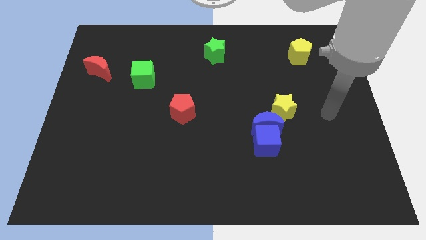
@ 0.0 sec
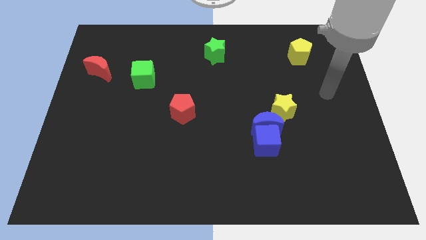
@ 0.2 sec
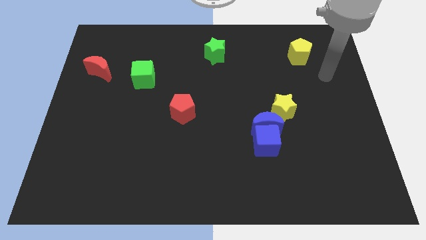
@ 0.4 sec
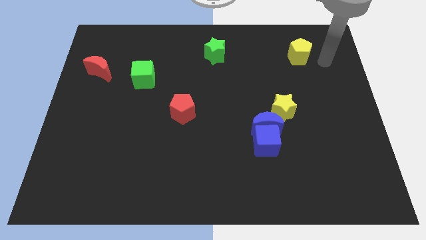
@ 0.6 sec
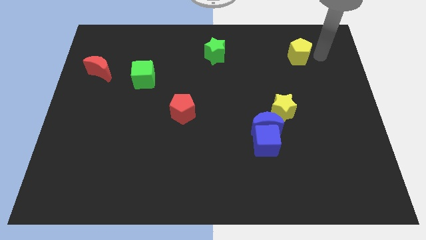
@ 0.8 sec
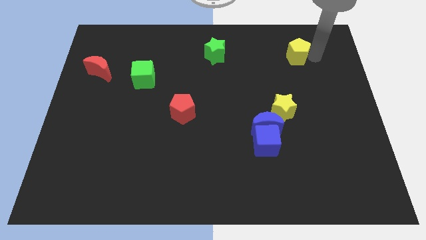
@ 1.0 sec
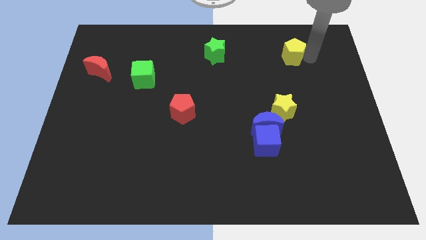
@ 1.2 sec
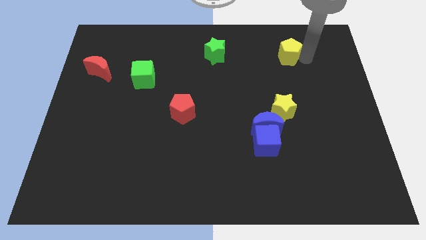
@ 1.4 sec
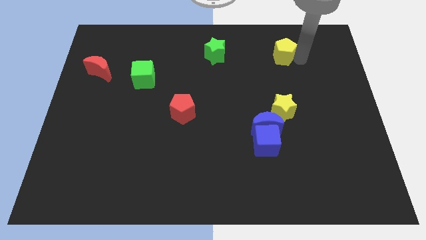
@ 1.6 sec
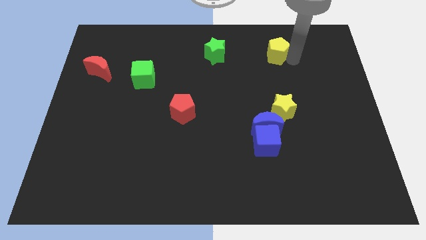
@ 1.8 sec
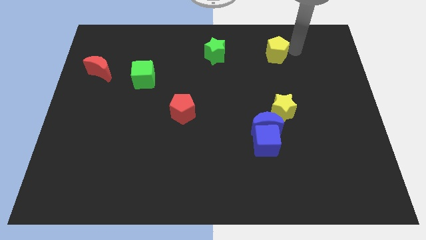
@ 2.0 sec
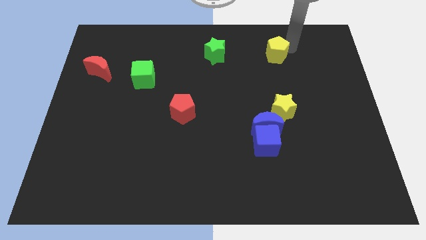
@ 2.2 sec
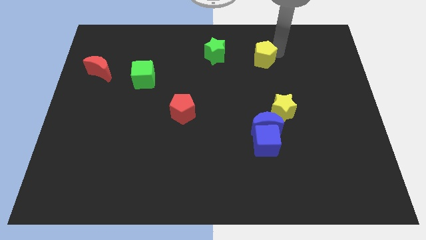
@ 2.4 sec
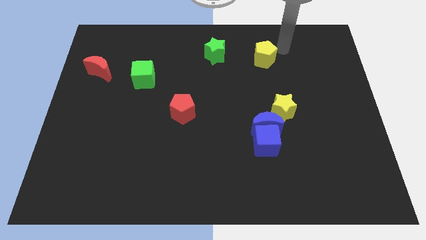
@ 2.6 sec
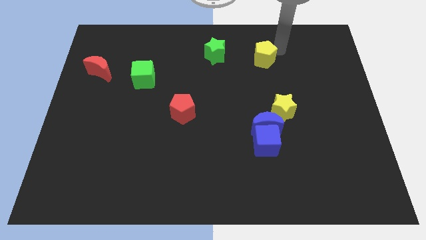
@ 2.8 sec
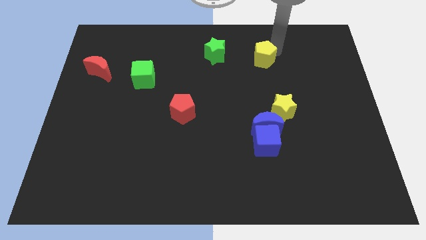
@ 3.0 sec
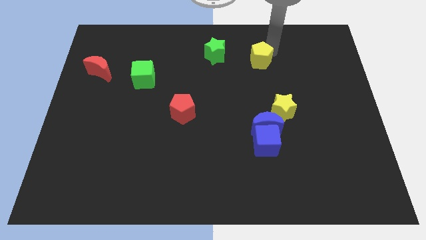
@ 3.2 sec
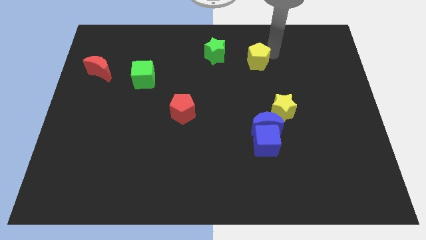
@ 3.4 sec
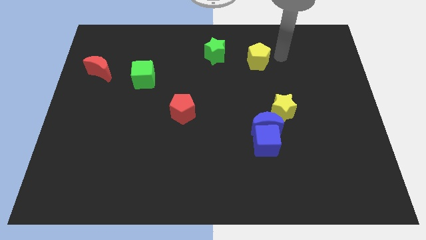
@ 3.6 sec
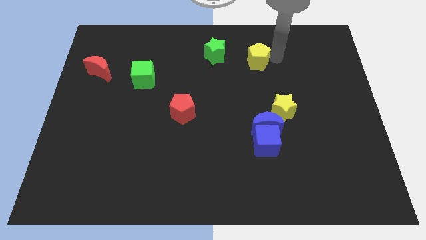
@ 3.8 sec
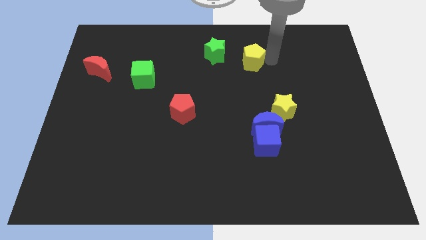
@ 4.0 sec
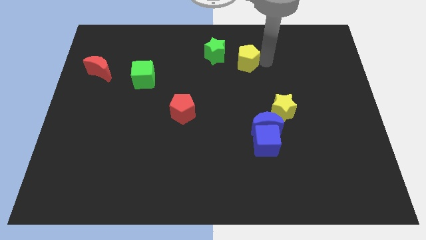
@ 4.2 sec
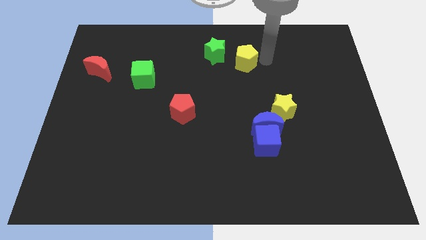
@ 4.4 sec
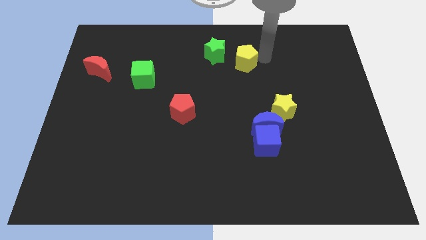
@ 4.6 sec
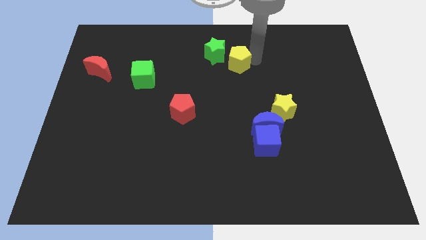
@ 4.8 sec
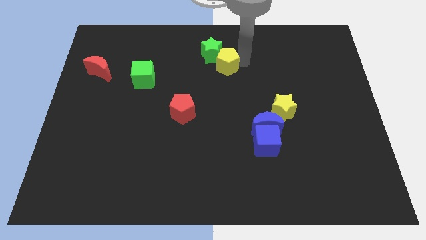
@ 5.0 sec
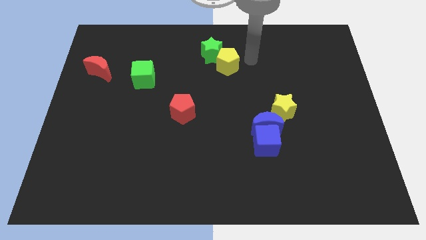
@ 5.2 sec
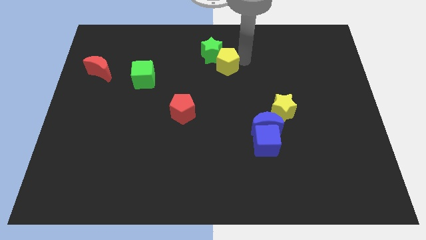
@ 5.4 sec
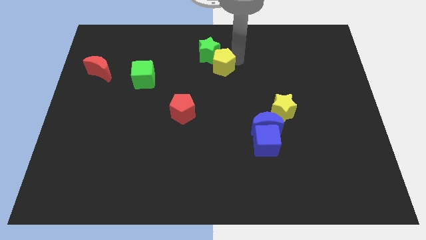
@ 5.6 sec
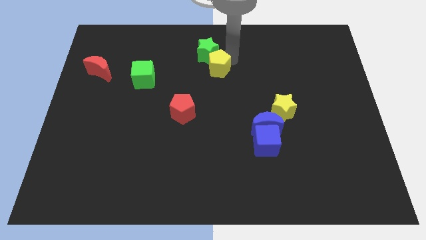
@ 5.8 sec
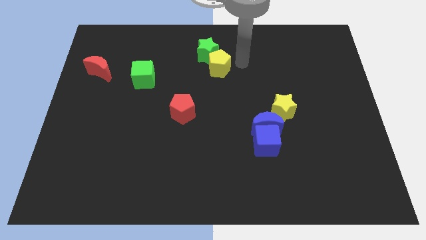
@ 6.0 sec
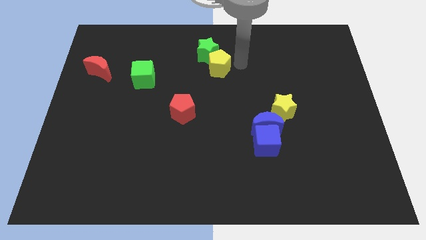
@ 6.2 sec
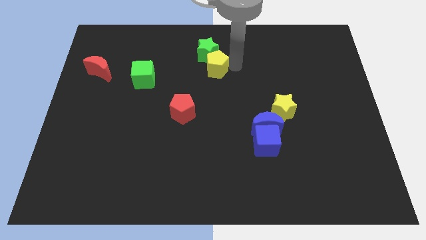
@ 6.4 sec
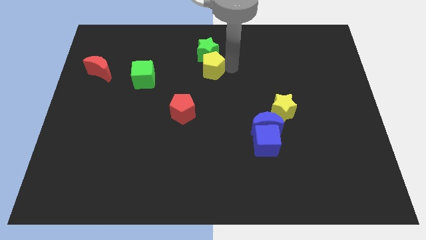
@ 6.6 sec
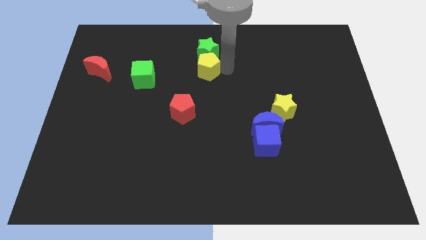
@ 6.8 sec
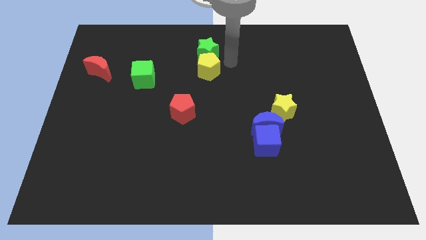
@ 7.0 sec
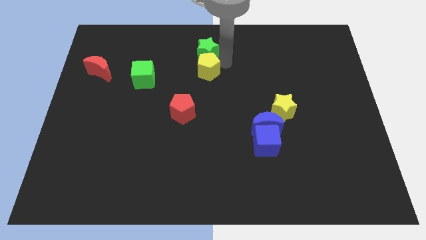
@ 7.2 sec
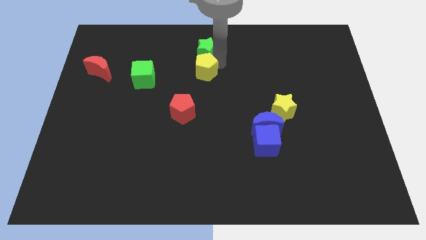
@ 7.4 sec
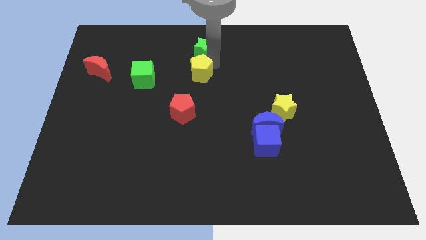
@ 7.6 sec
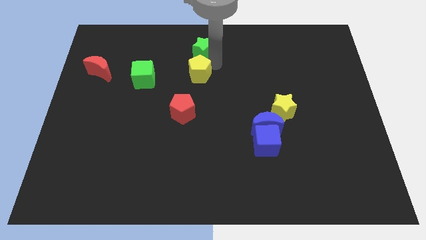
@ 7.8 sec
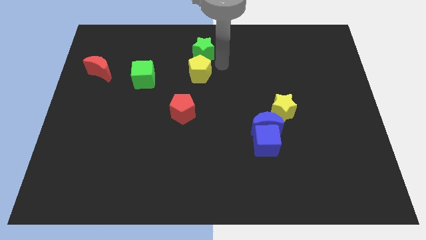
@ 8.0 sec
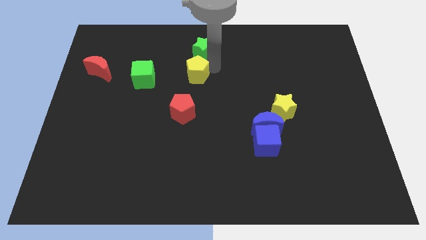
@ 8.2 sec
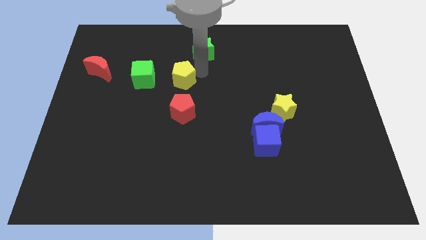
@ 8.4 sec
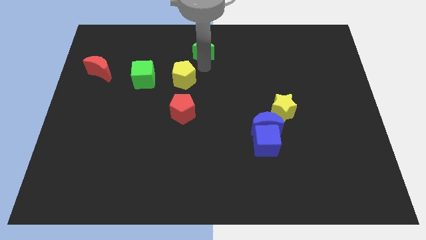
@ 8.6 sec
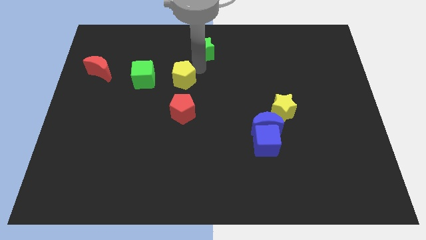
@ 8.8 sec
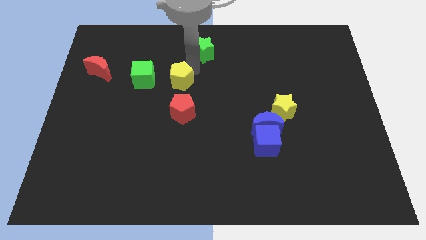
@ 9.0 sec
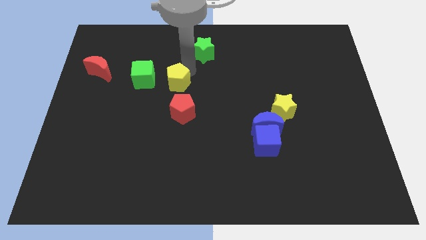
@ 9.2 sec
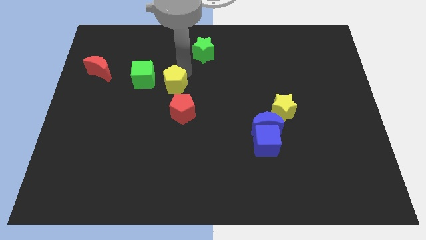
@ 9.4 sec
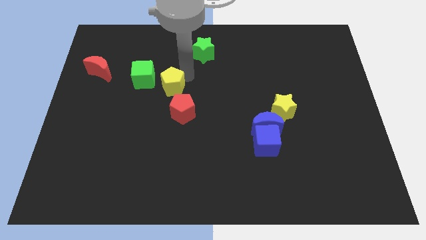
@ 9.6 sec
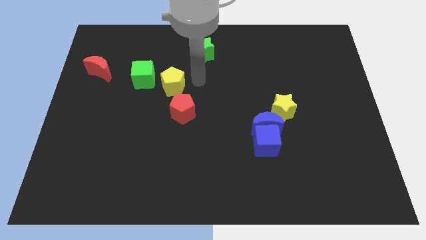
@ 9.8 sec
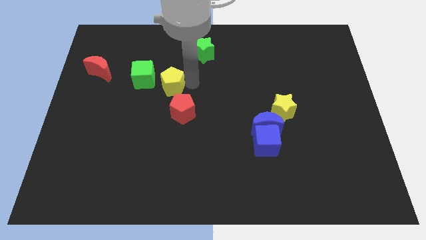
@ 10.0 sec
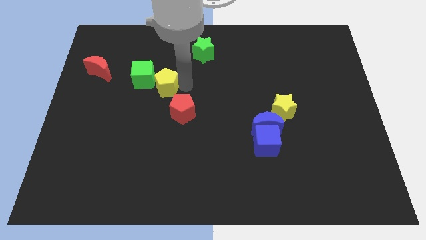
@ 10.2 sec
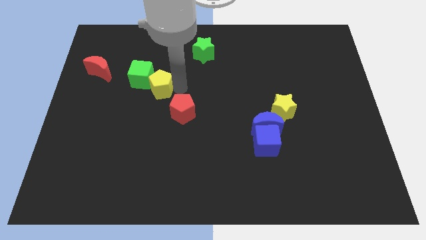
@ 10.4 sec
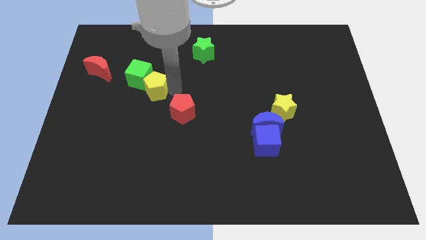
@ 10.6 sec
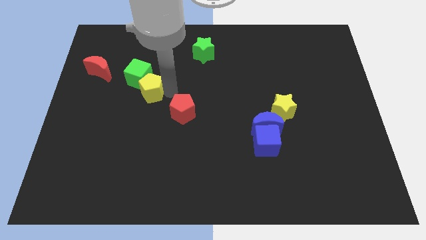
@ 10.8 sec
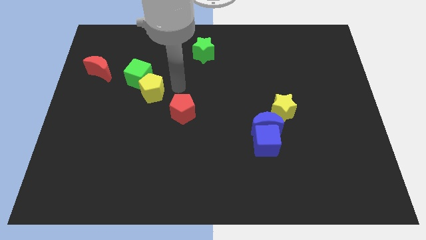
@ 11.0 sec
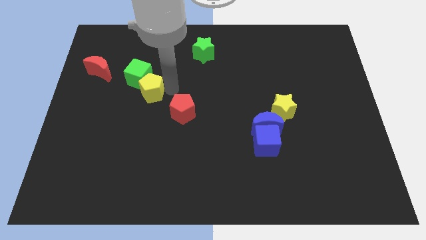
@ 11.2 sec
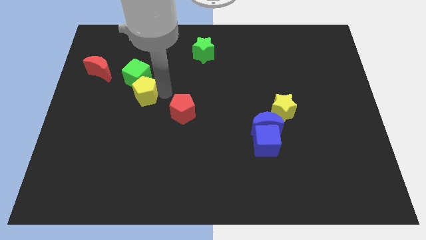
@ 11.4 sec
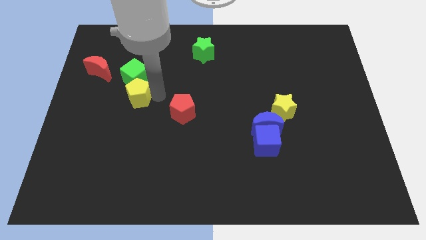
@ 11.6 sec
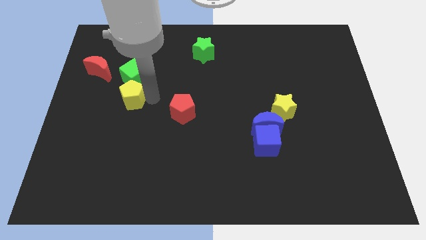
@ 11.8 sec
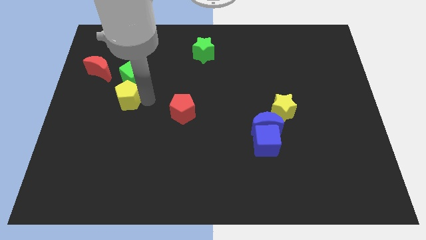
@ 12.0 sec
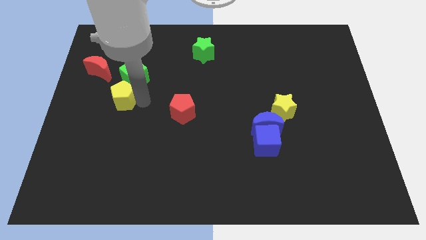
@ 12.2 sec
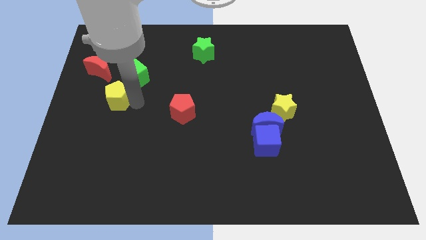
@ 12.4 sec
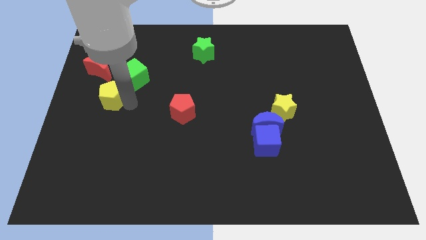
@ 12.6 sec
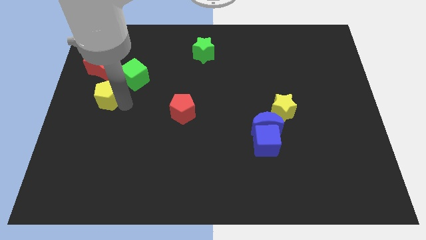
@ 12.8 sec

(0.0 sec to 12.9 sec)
move the yellow pentagon to the left side

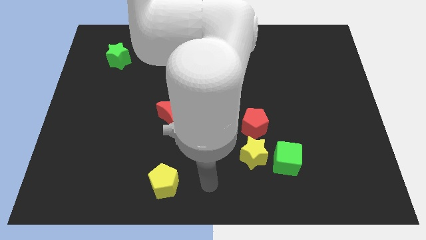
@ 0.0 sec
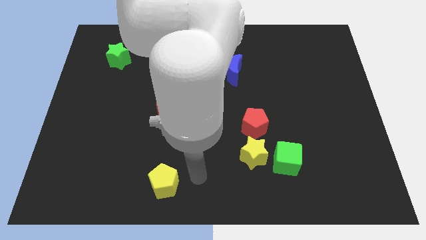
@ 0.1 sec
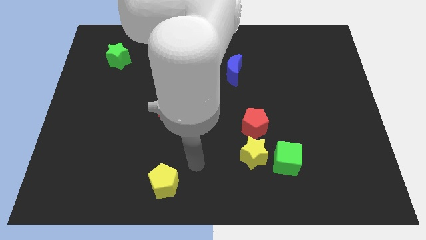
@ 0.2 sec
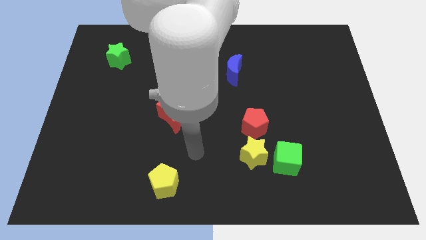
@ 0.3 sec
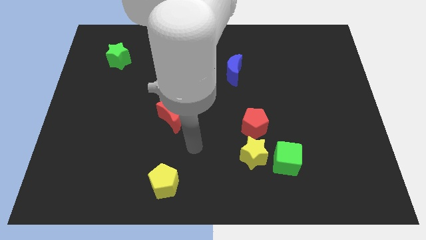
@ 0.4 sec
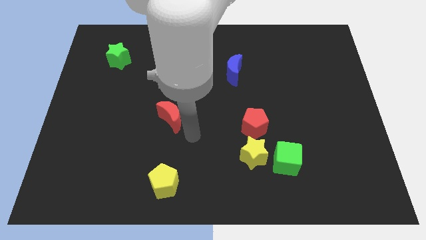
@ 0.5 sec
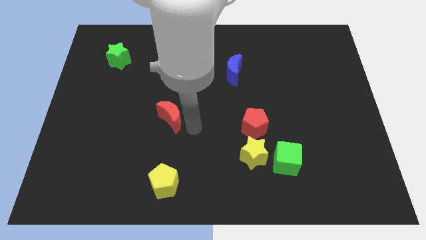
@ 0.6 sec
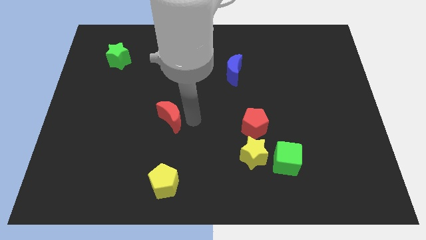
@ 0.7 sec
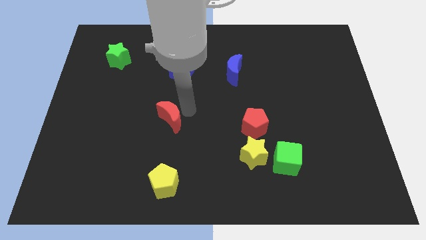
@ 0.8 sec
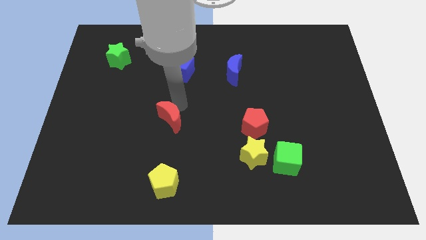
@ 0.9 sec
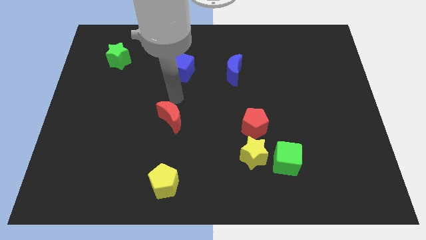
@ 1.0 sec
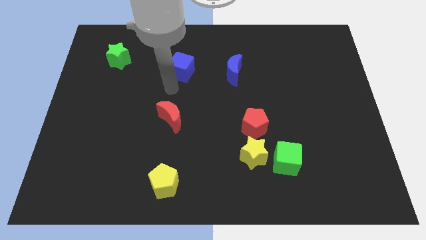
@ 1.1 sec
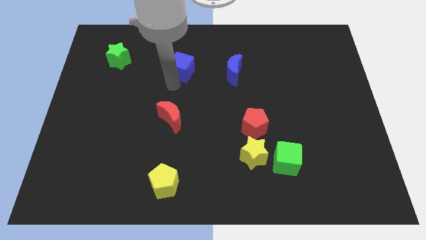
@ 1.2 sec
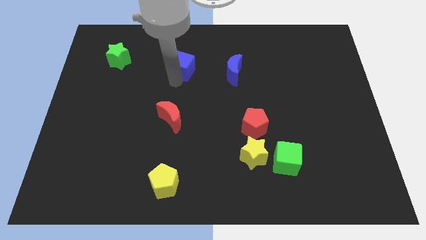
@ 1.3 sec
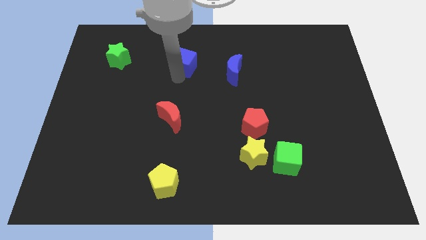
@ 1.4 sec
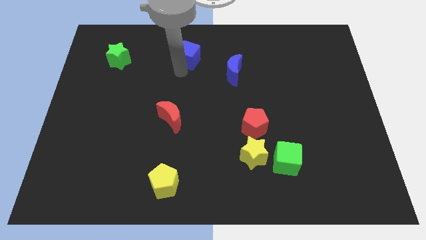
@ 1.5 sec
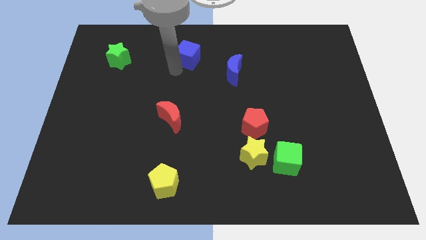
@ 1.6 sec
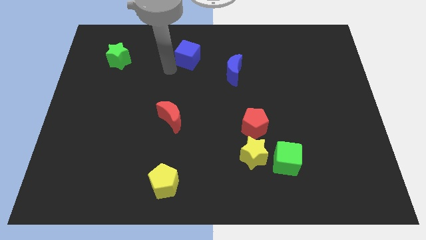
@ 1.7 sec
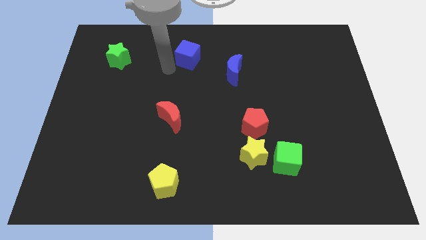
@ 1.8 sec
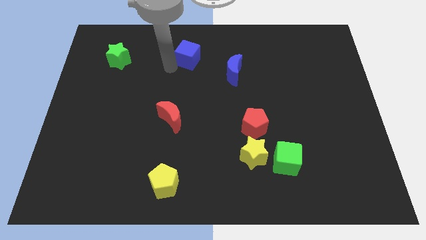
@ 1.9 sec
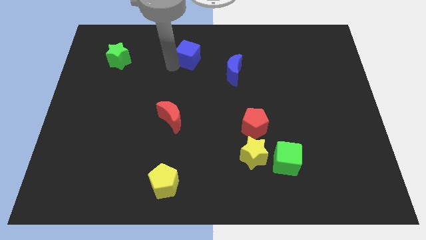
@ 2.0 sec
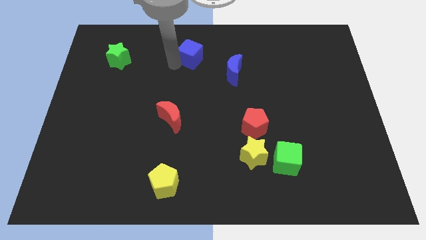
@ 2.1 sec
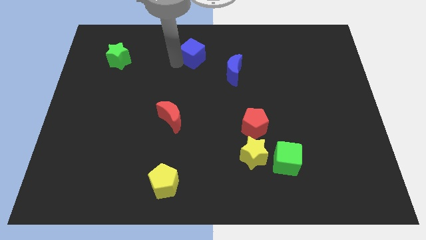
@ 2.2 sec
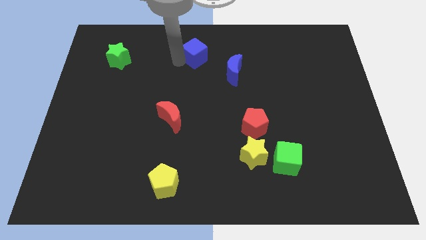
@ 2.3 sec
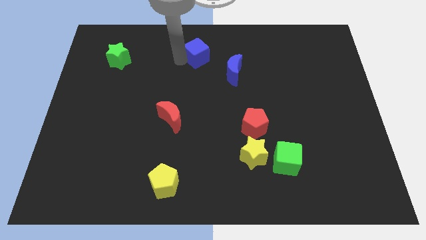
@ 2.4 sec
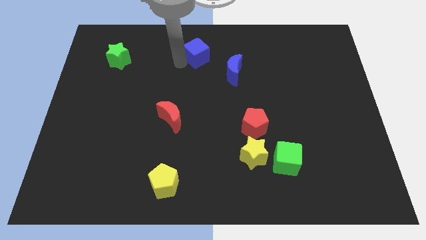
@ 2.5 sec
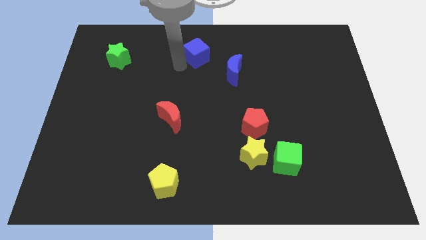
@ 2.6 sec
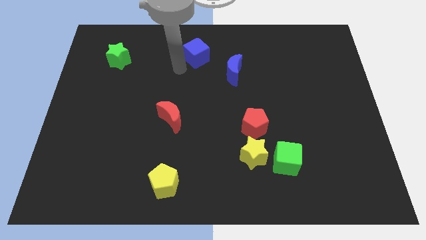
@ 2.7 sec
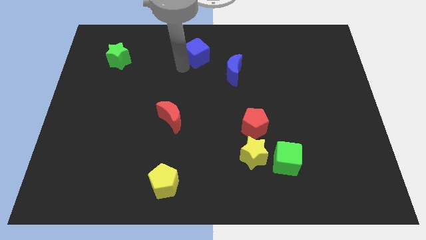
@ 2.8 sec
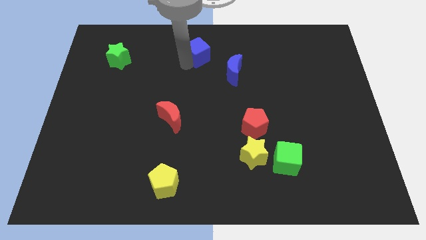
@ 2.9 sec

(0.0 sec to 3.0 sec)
move the blue cube to the towards your base
